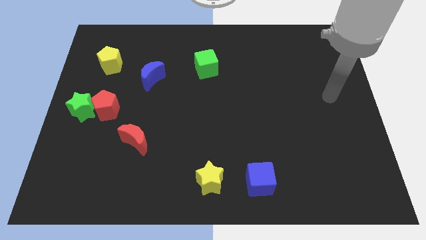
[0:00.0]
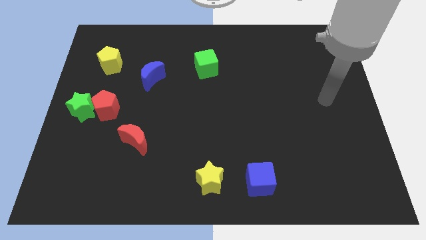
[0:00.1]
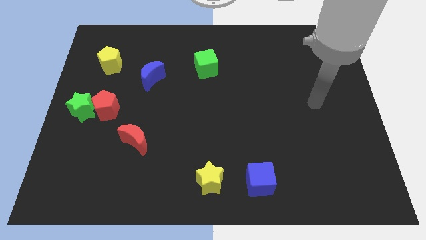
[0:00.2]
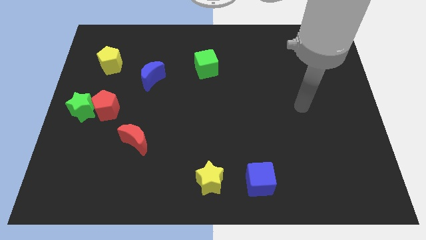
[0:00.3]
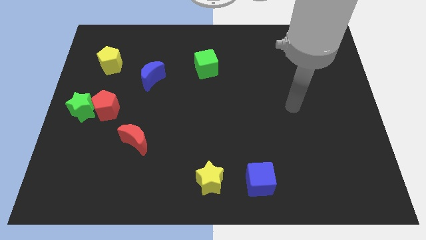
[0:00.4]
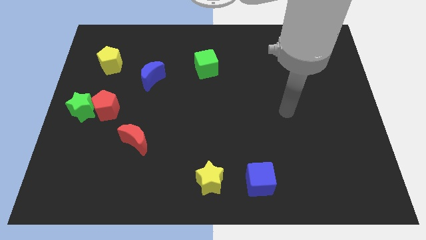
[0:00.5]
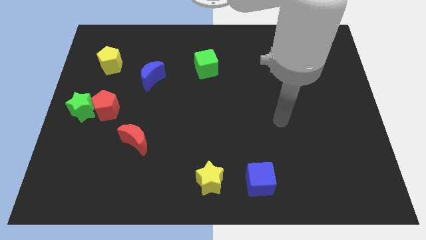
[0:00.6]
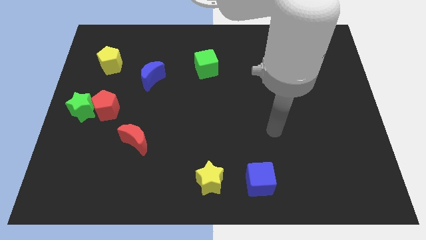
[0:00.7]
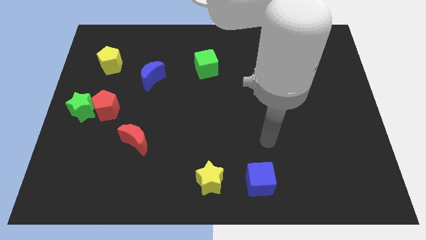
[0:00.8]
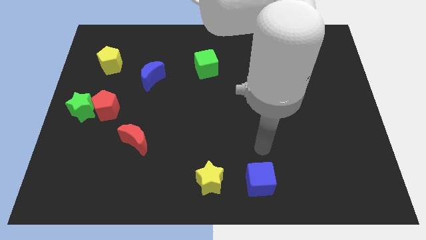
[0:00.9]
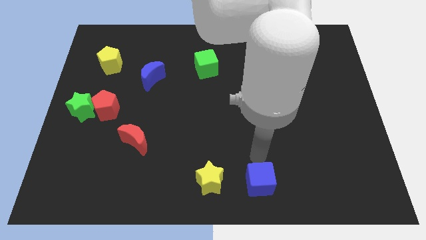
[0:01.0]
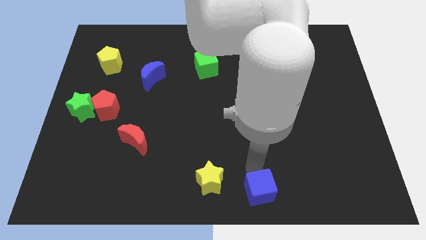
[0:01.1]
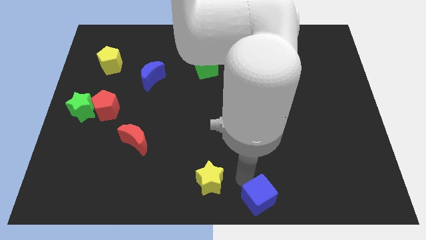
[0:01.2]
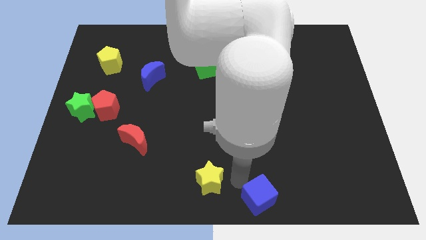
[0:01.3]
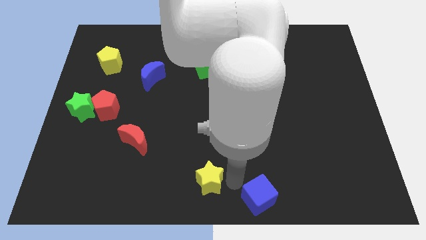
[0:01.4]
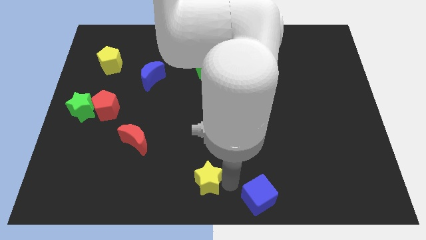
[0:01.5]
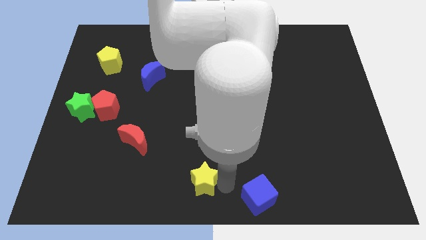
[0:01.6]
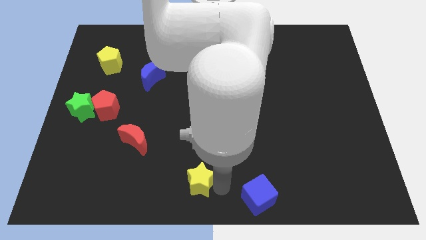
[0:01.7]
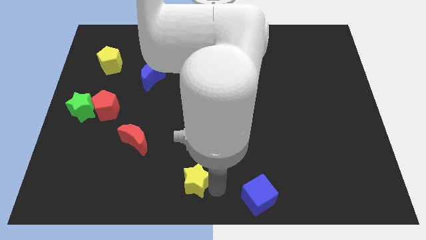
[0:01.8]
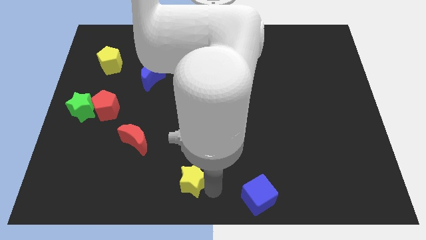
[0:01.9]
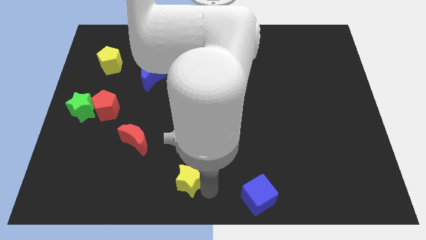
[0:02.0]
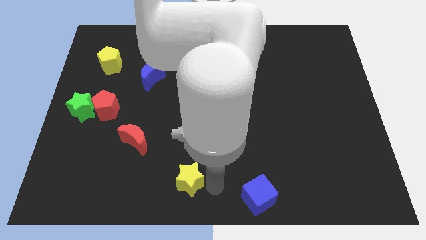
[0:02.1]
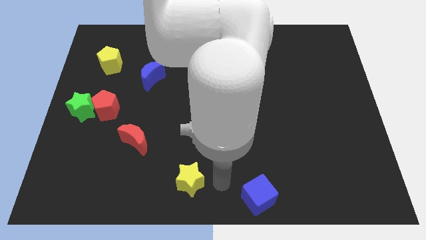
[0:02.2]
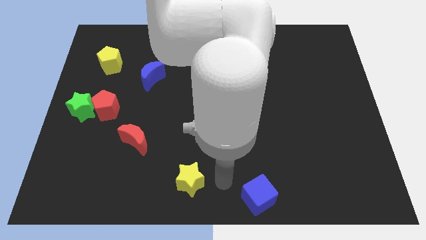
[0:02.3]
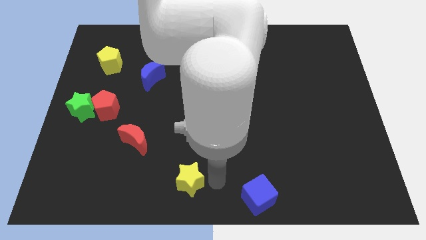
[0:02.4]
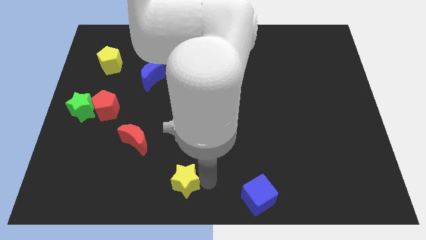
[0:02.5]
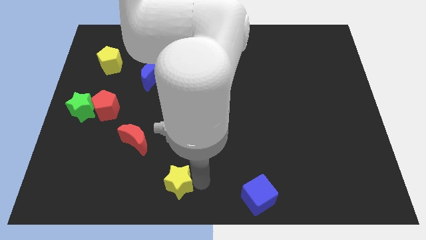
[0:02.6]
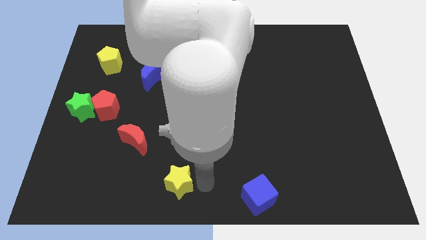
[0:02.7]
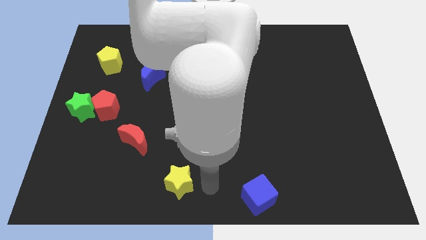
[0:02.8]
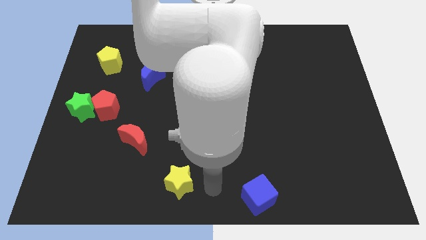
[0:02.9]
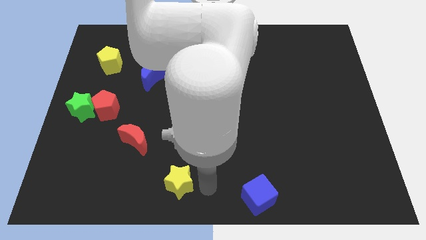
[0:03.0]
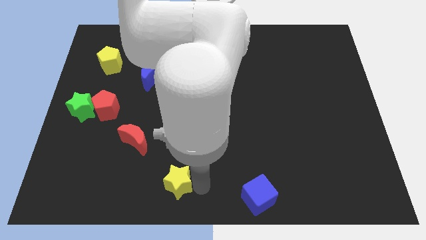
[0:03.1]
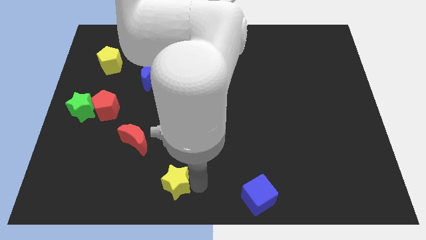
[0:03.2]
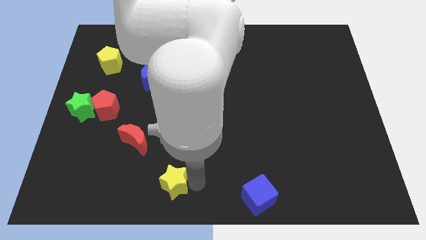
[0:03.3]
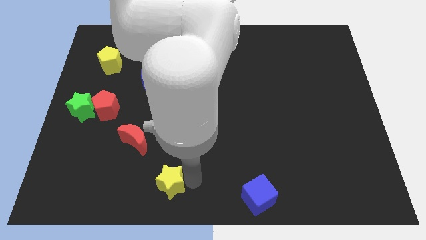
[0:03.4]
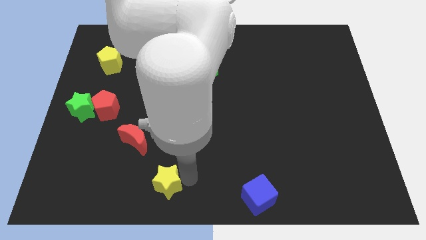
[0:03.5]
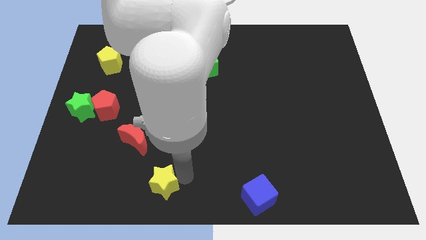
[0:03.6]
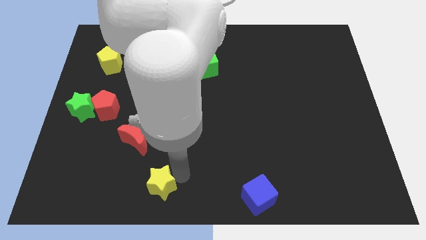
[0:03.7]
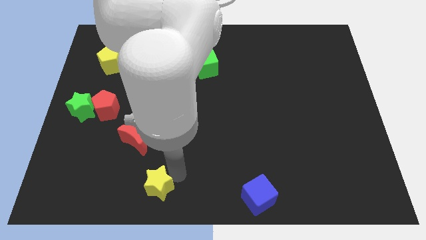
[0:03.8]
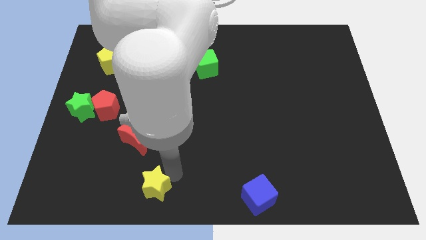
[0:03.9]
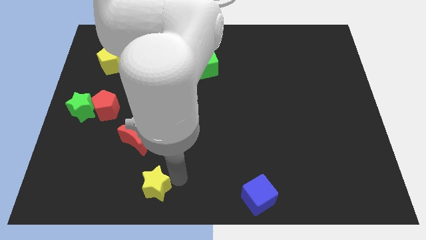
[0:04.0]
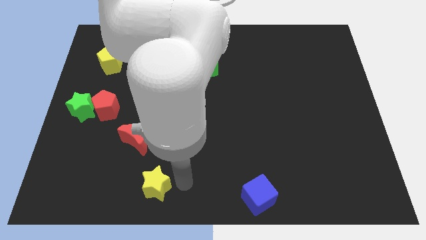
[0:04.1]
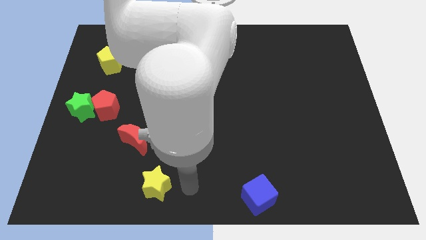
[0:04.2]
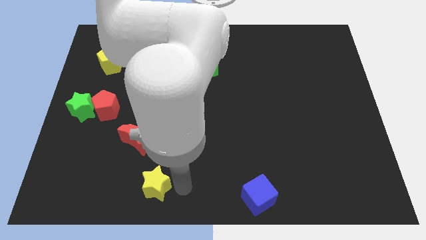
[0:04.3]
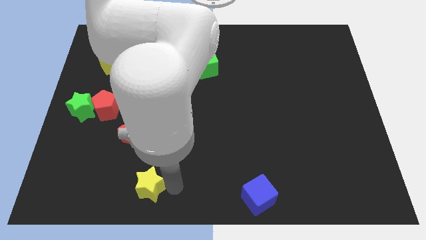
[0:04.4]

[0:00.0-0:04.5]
push the yellow star to the bottom of the red moon

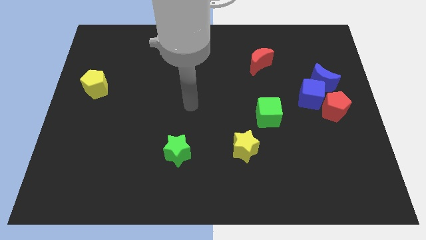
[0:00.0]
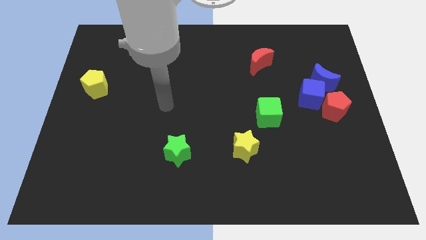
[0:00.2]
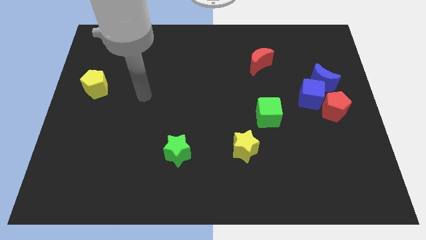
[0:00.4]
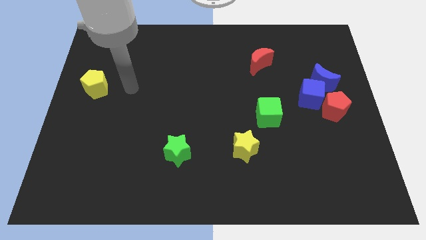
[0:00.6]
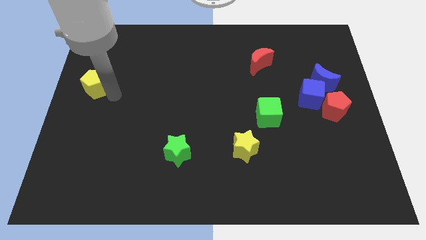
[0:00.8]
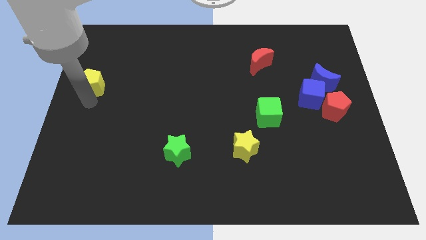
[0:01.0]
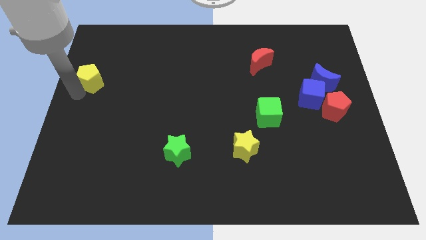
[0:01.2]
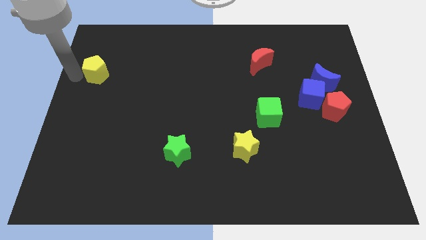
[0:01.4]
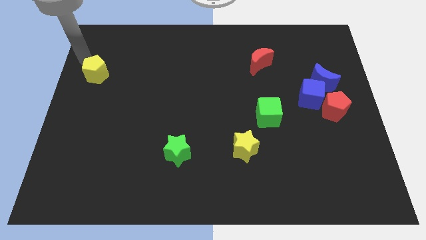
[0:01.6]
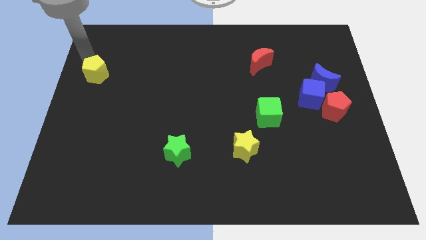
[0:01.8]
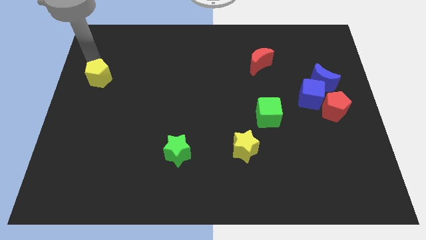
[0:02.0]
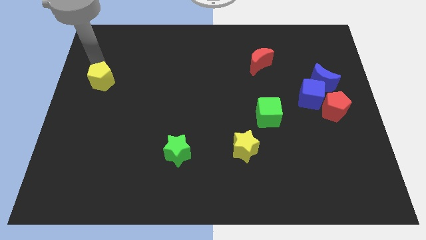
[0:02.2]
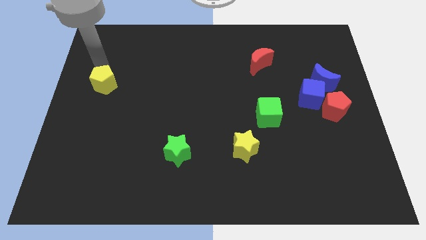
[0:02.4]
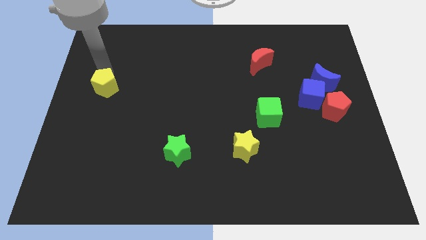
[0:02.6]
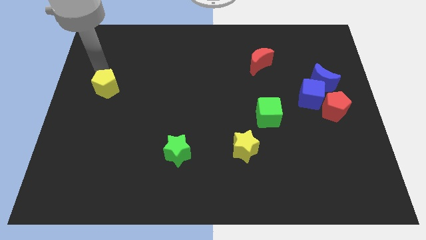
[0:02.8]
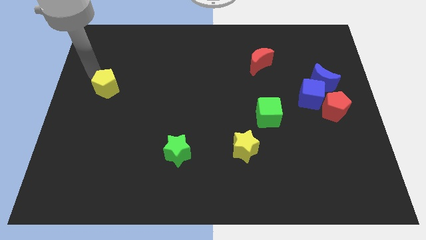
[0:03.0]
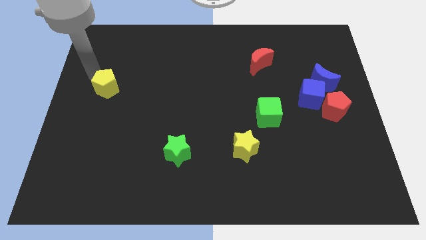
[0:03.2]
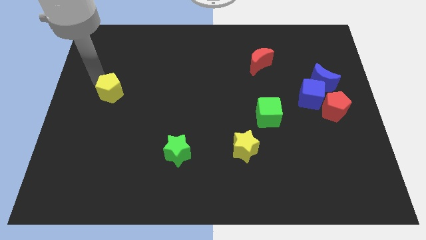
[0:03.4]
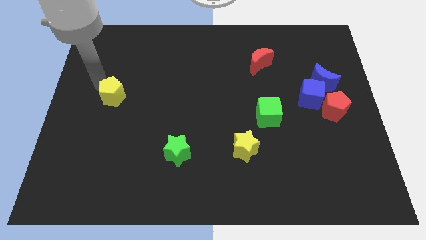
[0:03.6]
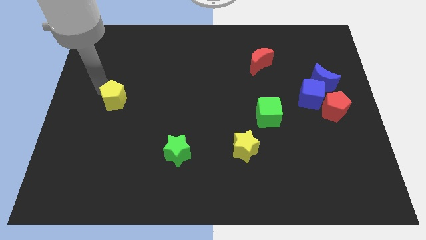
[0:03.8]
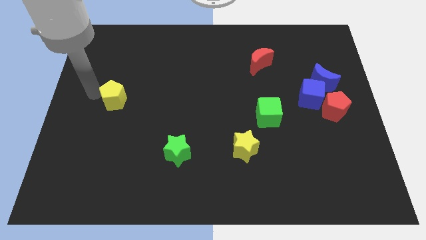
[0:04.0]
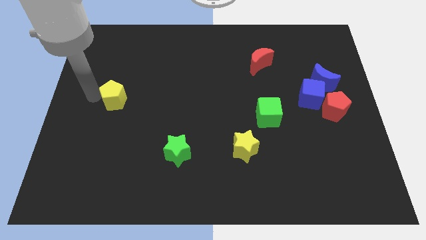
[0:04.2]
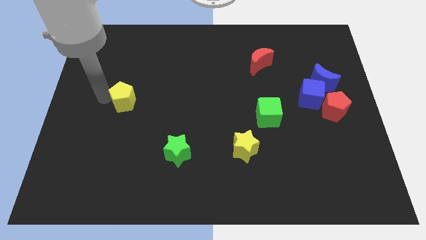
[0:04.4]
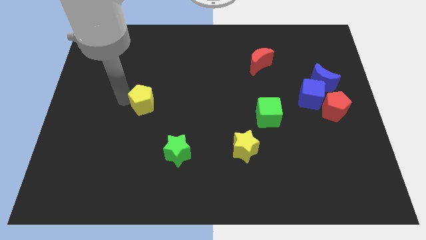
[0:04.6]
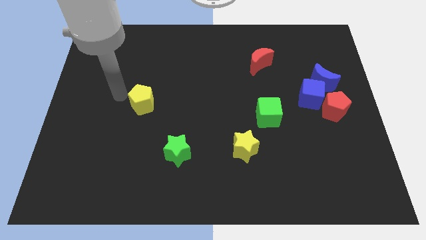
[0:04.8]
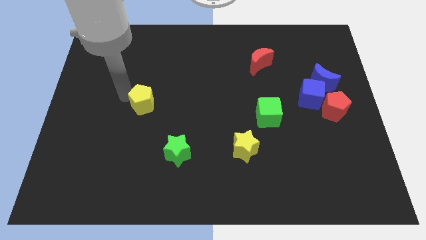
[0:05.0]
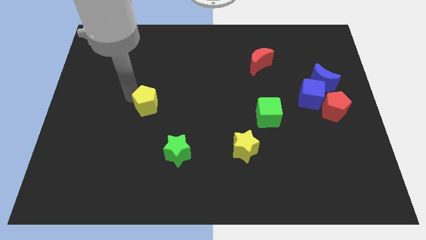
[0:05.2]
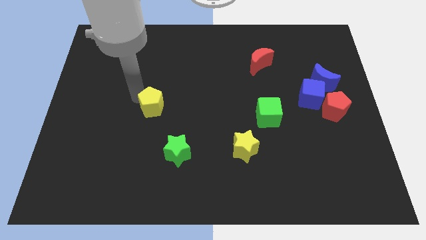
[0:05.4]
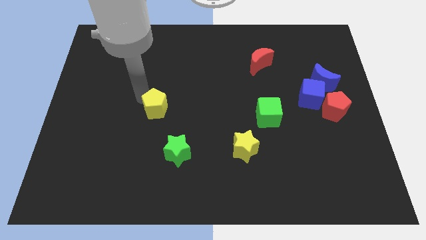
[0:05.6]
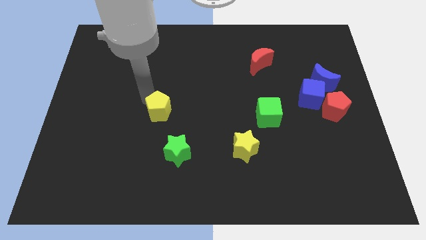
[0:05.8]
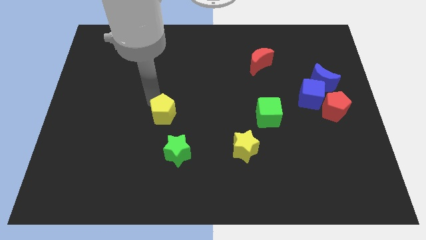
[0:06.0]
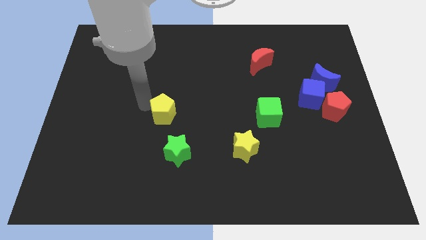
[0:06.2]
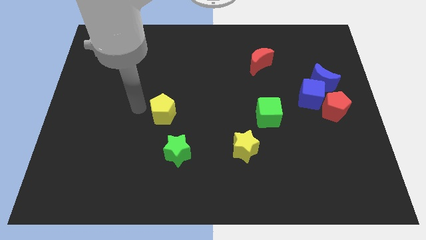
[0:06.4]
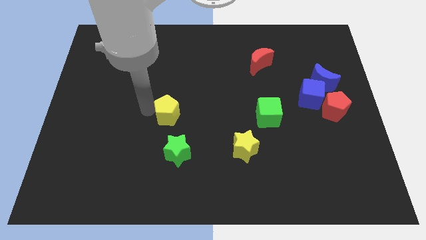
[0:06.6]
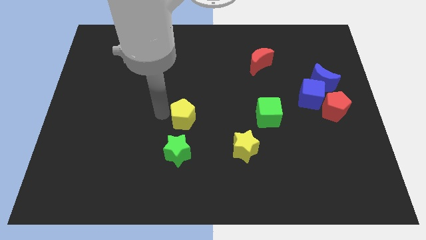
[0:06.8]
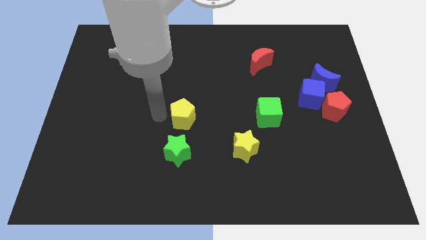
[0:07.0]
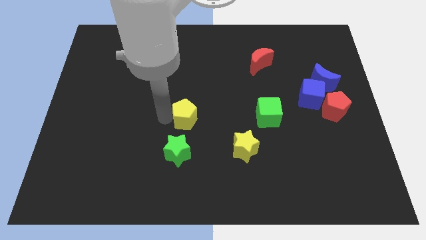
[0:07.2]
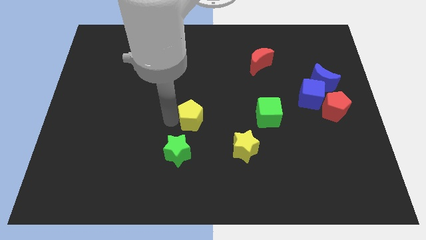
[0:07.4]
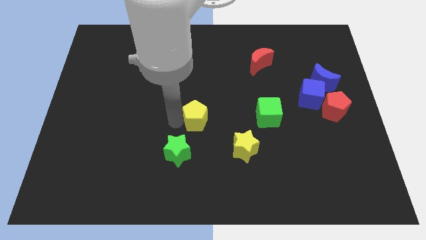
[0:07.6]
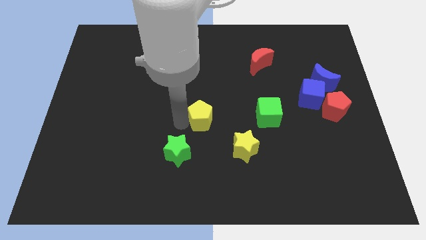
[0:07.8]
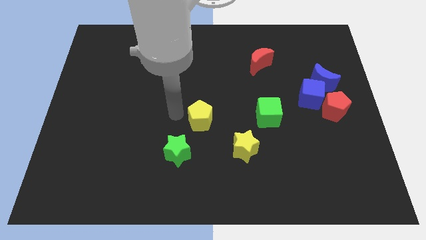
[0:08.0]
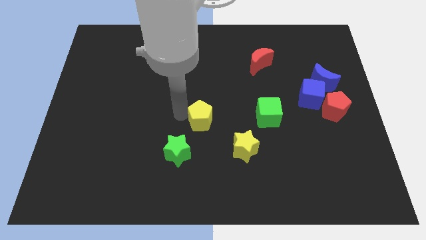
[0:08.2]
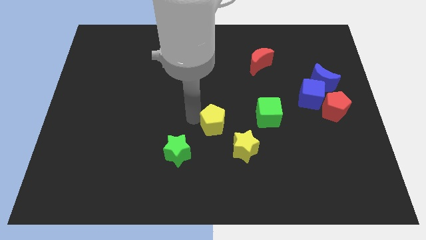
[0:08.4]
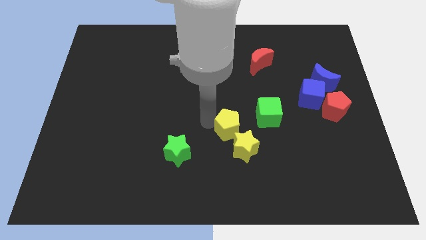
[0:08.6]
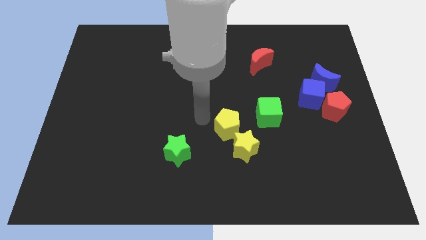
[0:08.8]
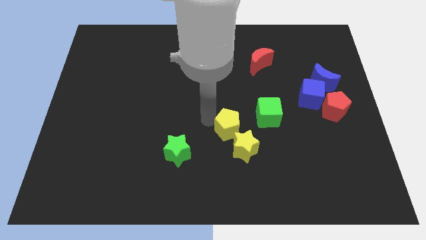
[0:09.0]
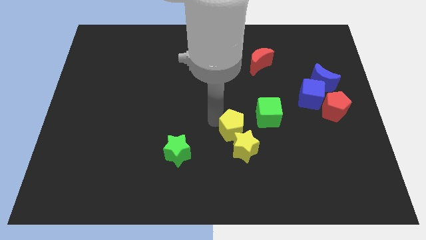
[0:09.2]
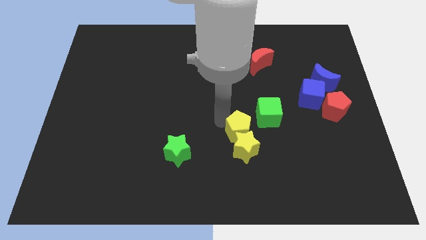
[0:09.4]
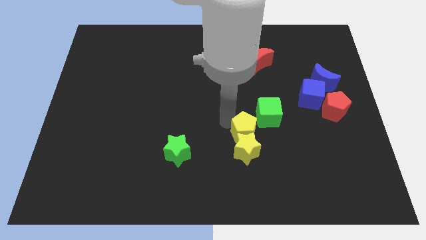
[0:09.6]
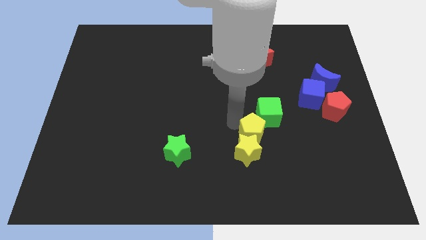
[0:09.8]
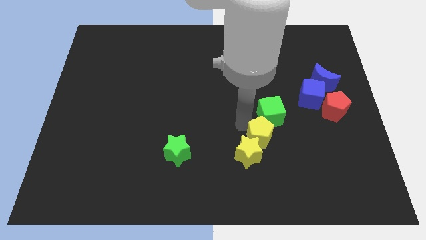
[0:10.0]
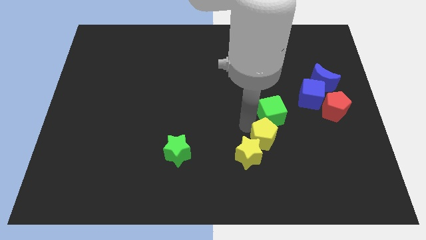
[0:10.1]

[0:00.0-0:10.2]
move the yellow pentagon to the right side of the yellow star
